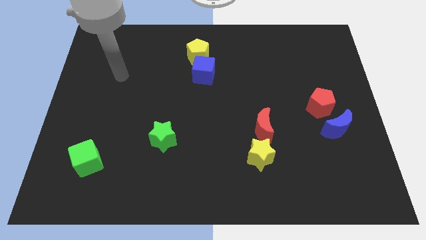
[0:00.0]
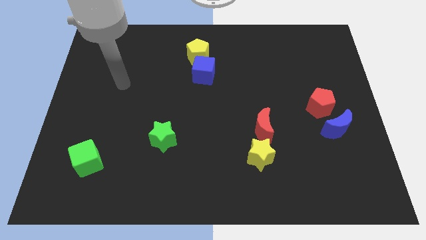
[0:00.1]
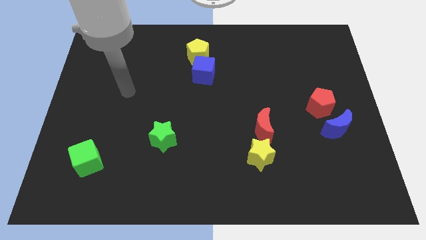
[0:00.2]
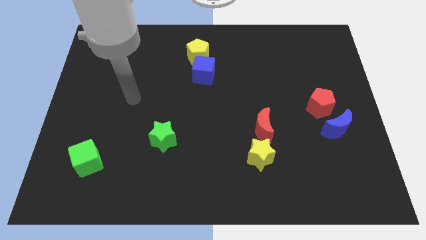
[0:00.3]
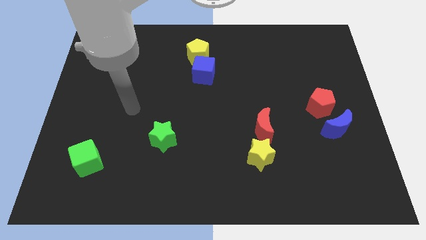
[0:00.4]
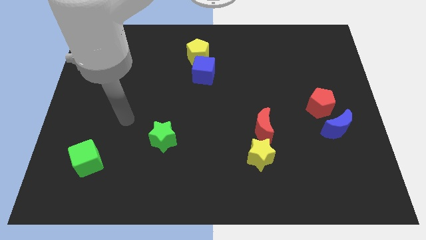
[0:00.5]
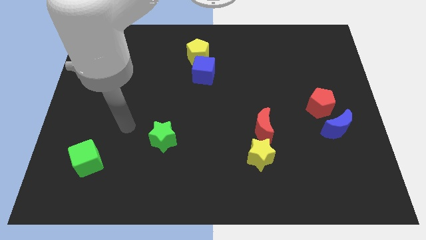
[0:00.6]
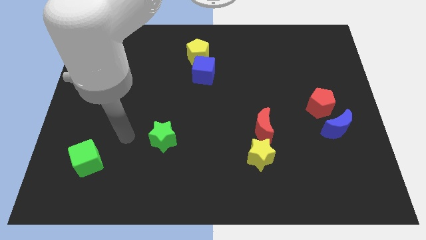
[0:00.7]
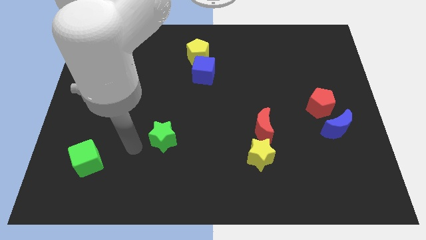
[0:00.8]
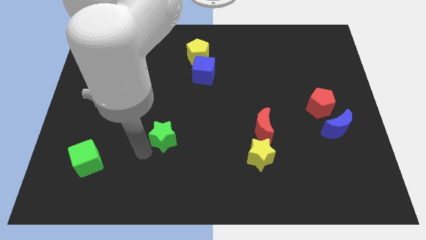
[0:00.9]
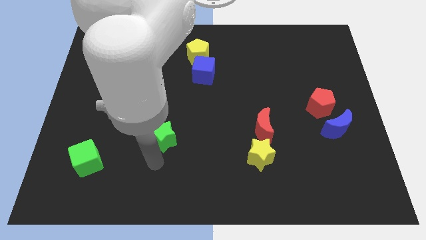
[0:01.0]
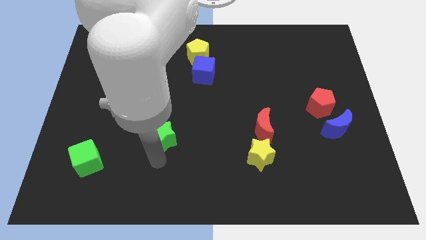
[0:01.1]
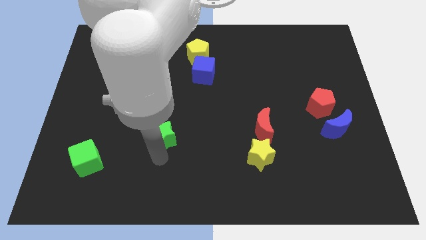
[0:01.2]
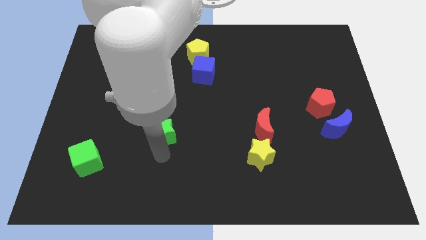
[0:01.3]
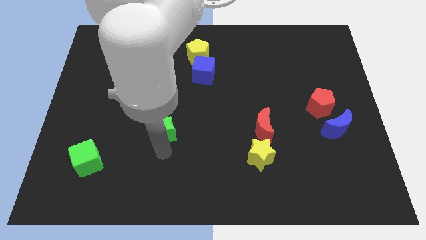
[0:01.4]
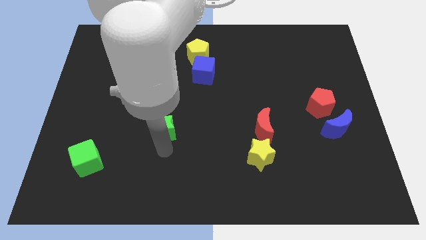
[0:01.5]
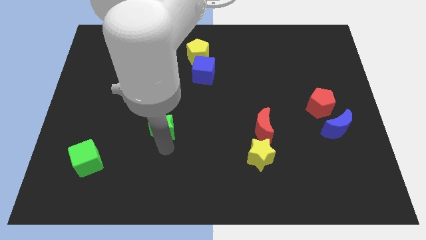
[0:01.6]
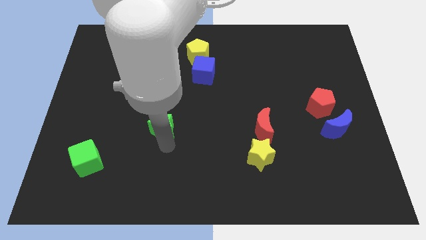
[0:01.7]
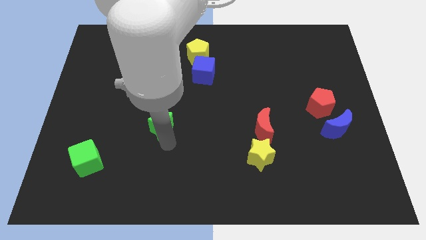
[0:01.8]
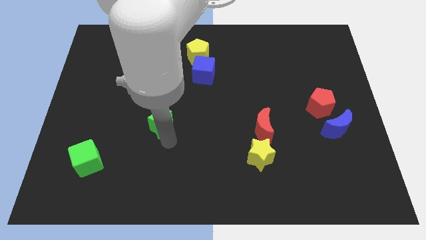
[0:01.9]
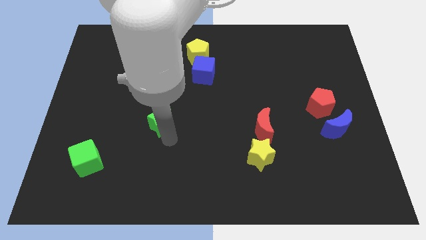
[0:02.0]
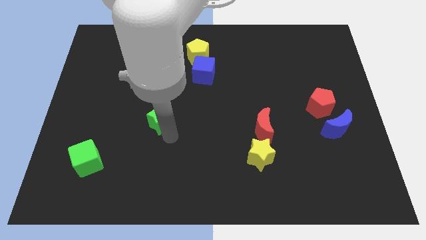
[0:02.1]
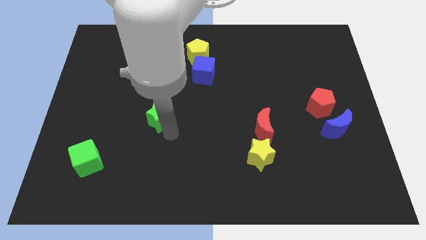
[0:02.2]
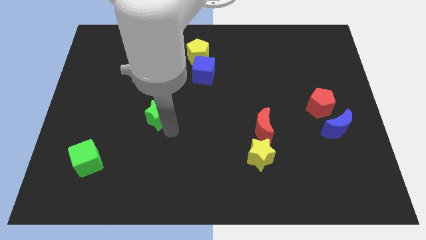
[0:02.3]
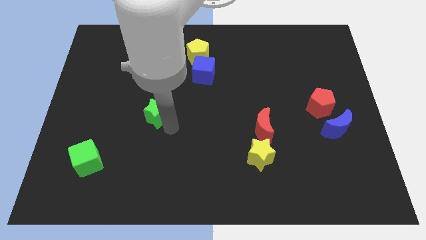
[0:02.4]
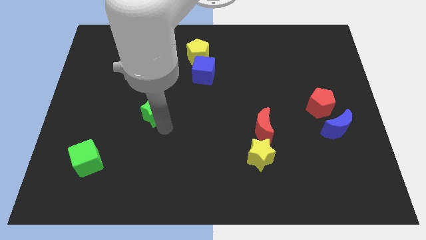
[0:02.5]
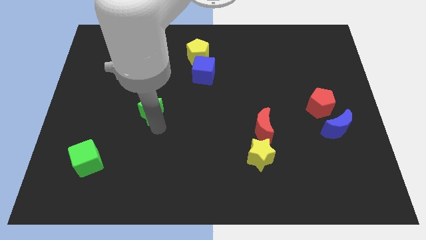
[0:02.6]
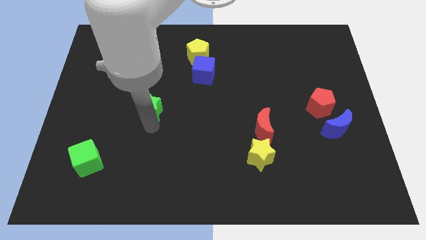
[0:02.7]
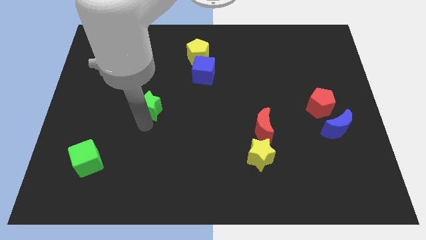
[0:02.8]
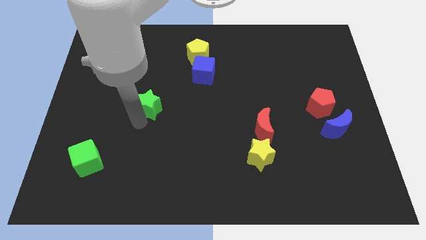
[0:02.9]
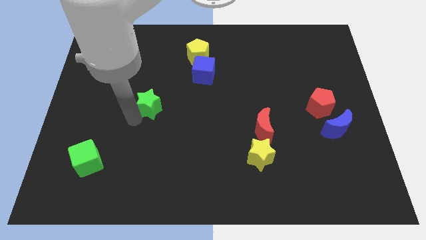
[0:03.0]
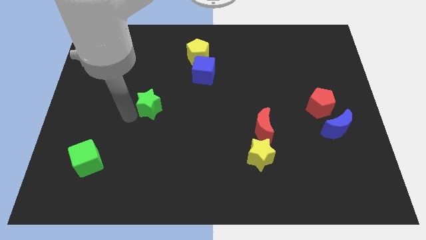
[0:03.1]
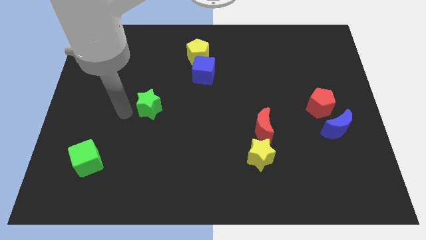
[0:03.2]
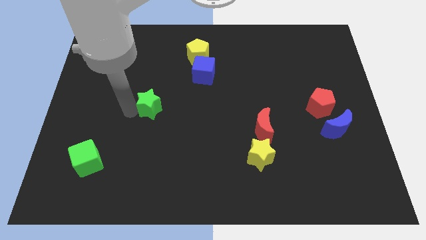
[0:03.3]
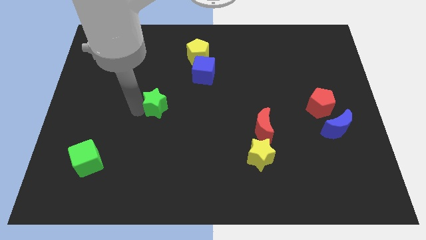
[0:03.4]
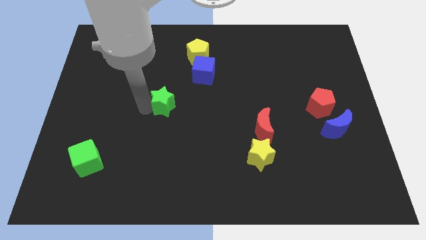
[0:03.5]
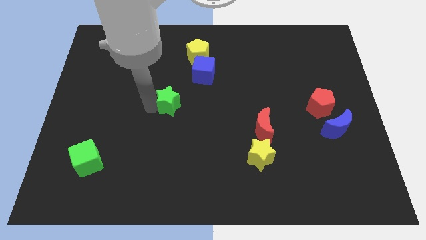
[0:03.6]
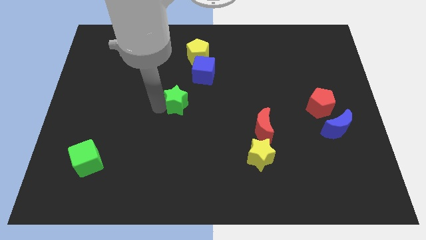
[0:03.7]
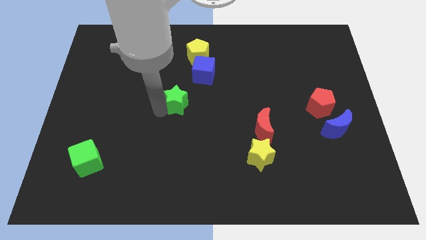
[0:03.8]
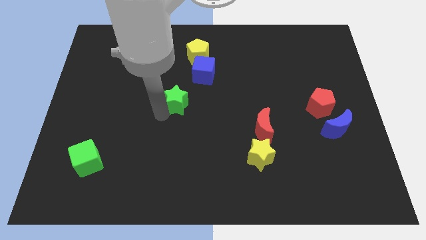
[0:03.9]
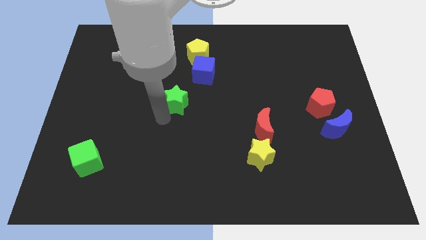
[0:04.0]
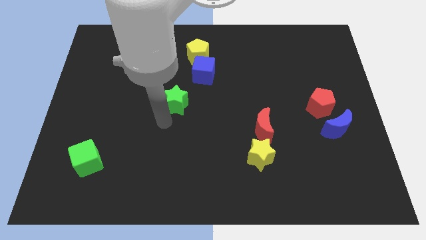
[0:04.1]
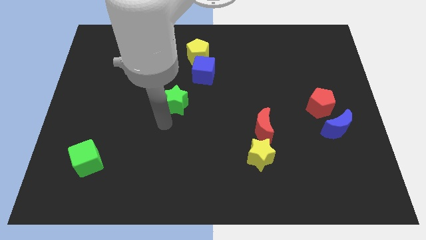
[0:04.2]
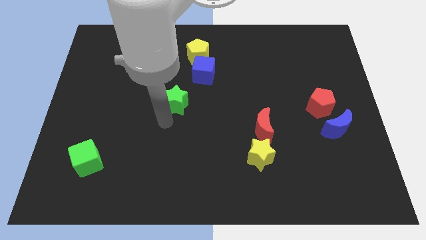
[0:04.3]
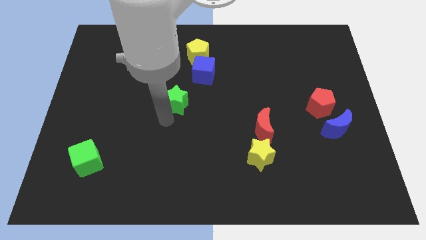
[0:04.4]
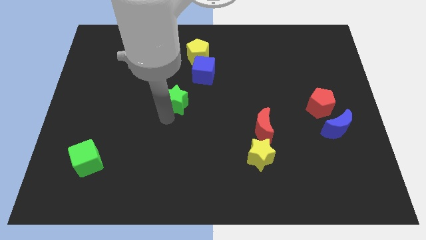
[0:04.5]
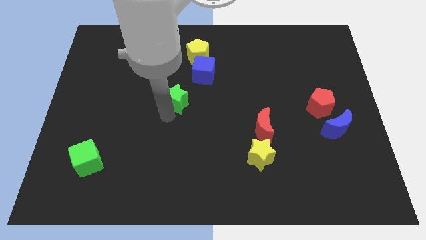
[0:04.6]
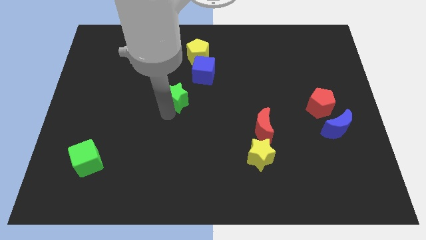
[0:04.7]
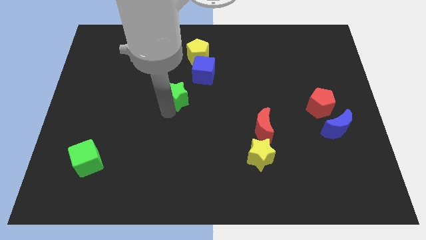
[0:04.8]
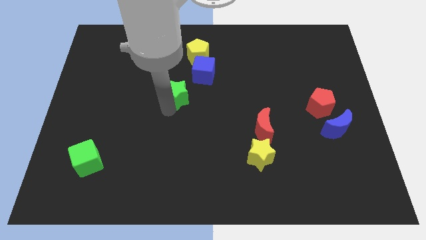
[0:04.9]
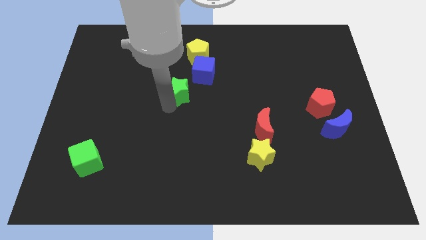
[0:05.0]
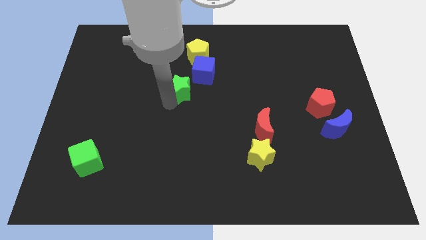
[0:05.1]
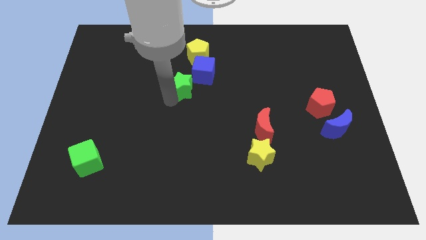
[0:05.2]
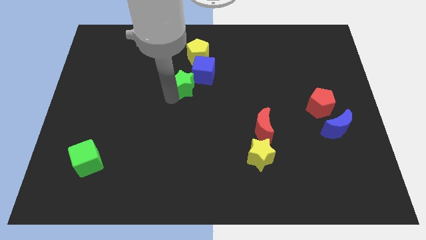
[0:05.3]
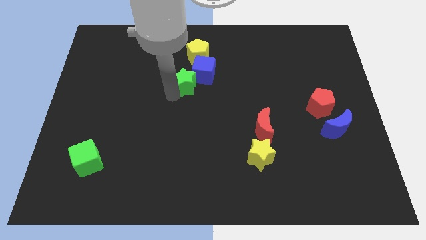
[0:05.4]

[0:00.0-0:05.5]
push the green star next to the blue cube

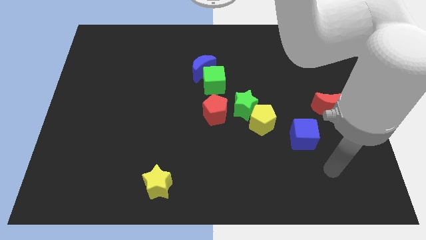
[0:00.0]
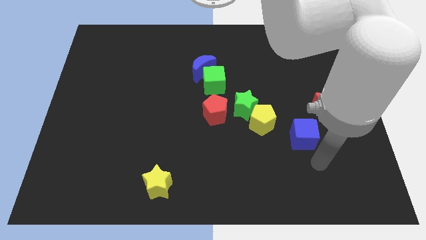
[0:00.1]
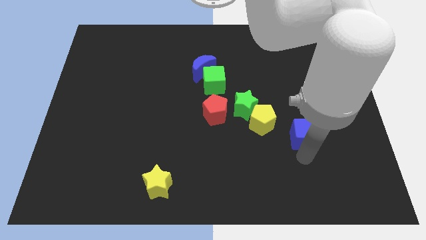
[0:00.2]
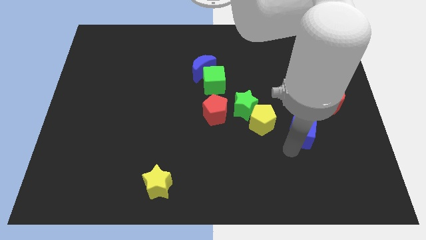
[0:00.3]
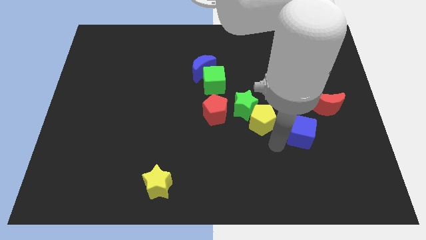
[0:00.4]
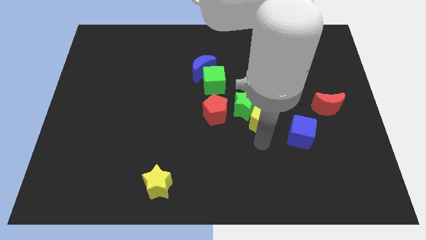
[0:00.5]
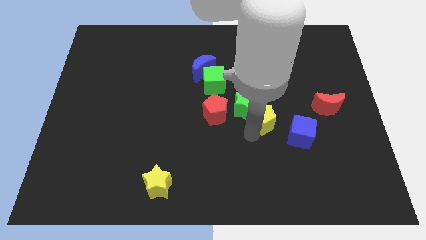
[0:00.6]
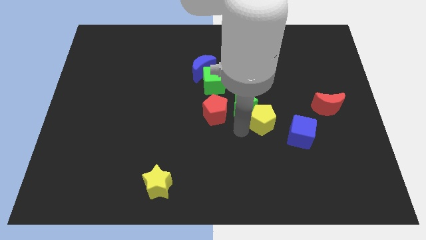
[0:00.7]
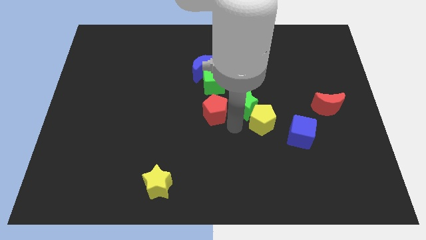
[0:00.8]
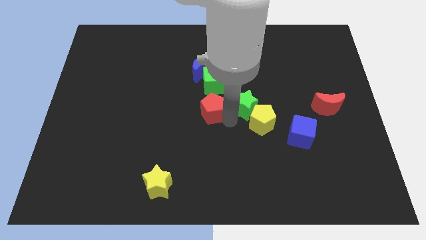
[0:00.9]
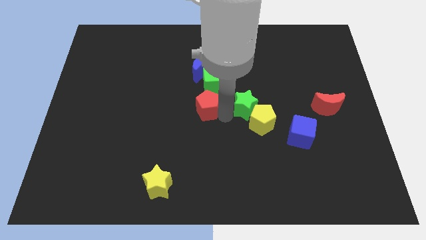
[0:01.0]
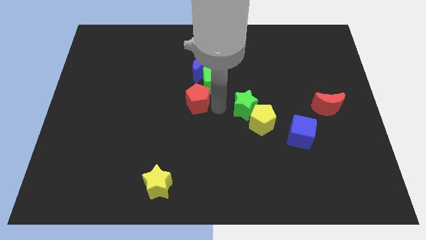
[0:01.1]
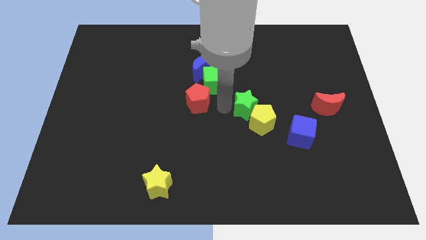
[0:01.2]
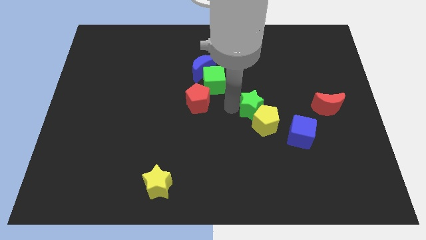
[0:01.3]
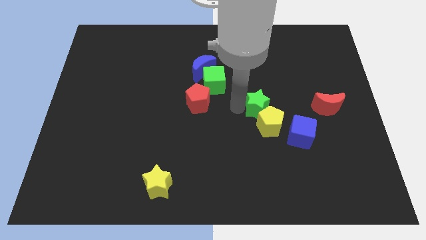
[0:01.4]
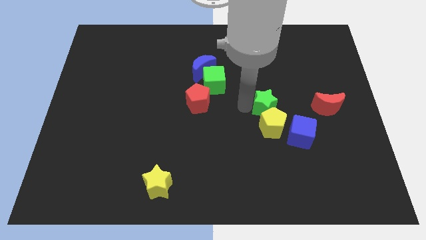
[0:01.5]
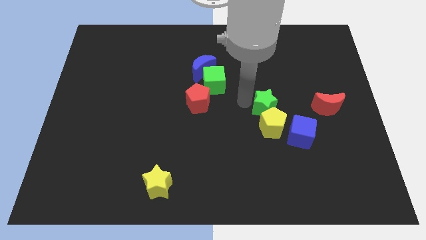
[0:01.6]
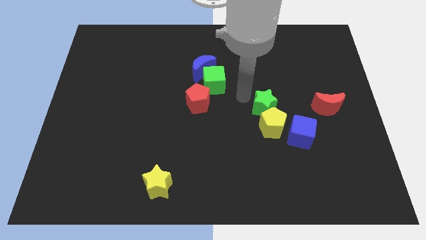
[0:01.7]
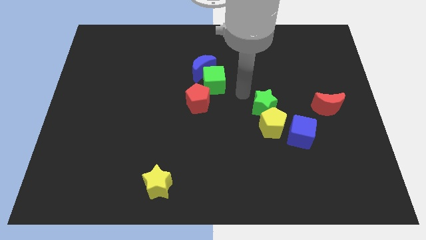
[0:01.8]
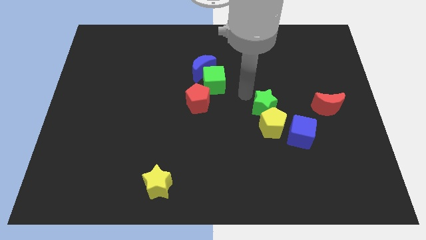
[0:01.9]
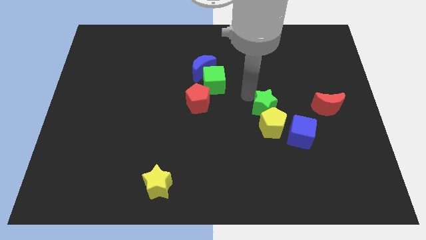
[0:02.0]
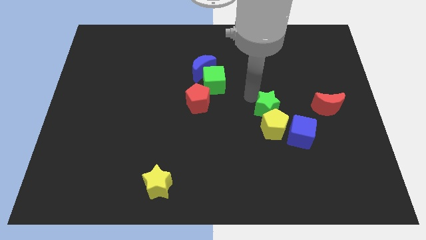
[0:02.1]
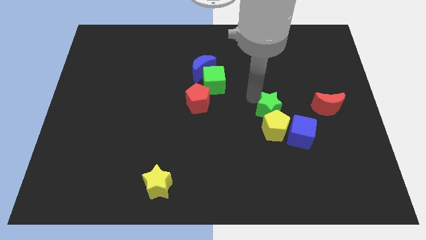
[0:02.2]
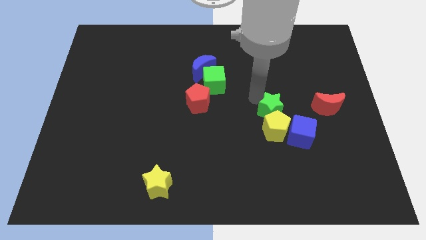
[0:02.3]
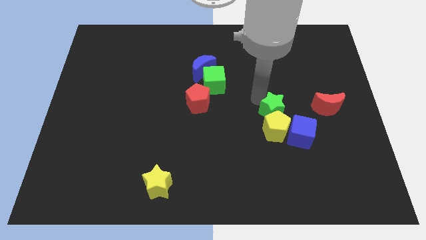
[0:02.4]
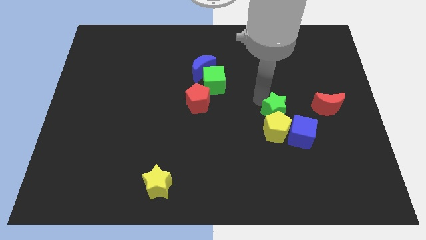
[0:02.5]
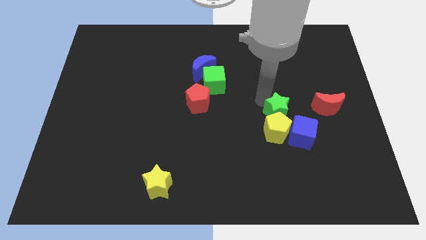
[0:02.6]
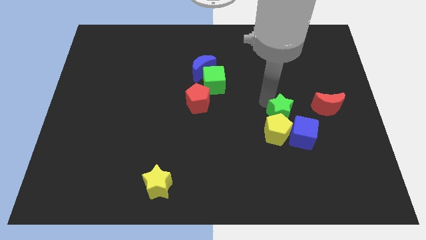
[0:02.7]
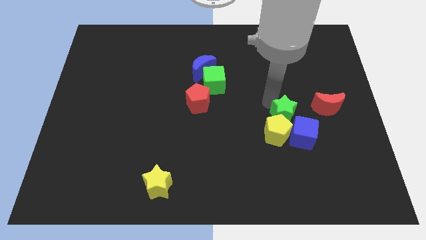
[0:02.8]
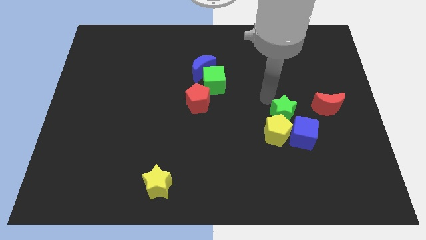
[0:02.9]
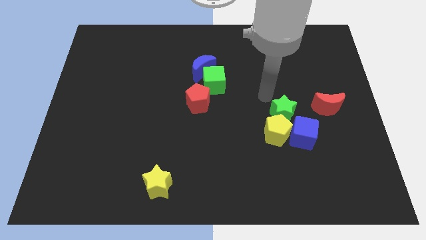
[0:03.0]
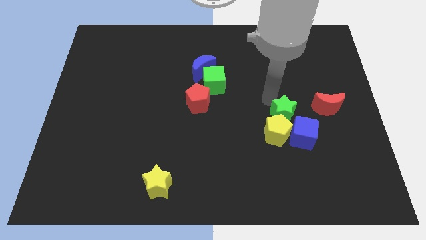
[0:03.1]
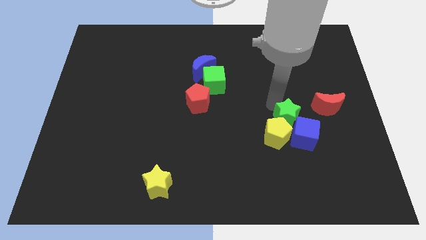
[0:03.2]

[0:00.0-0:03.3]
slide the green star close to the blue cube
